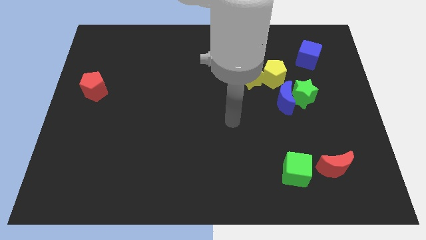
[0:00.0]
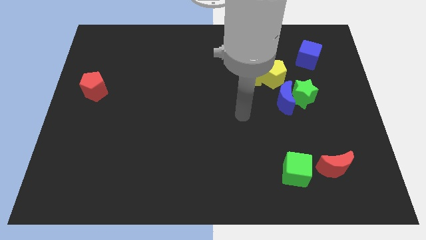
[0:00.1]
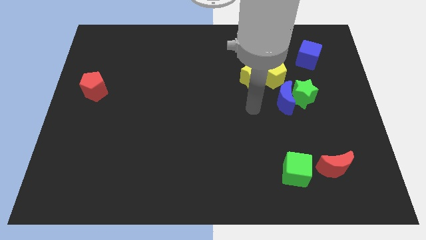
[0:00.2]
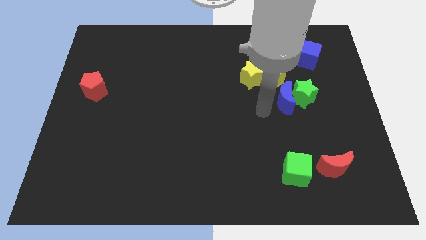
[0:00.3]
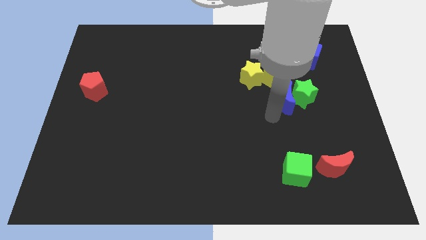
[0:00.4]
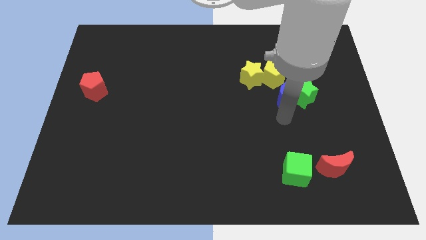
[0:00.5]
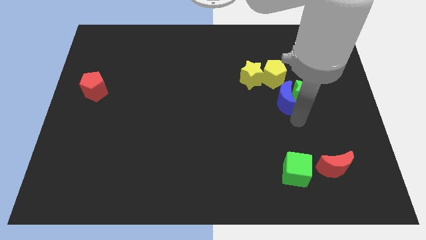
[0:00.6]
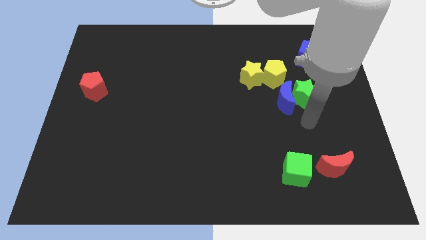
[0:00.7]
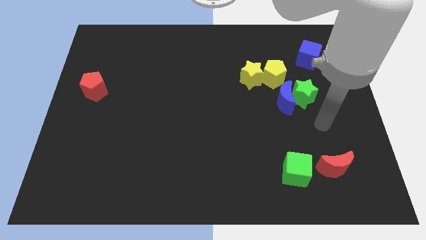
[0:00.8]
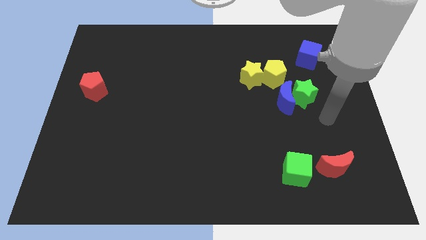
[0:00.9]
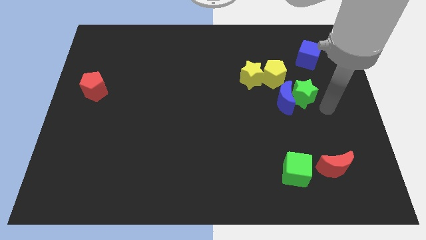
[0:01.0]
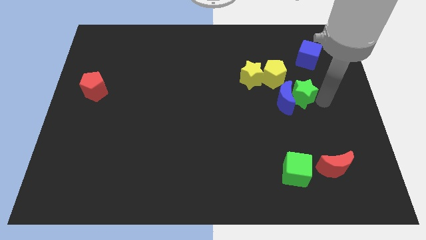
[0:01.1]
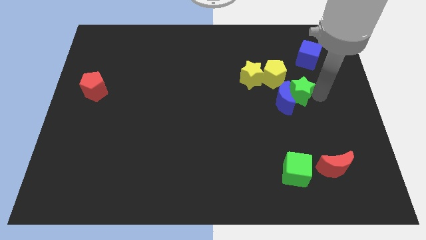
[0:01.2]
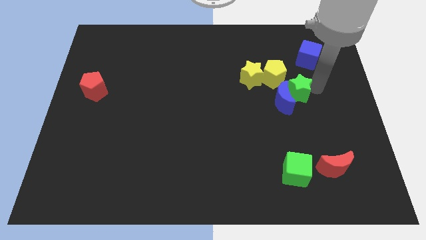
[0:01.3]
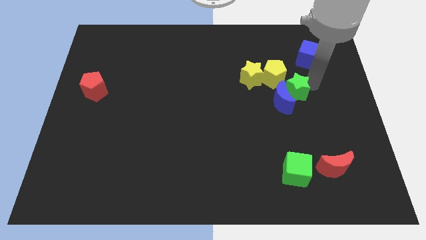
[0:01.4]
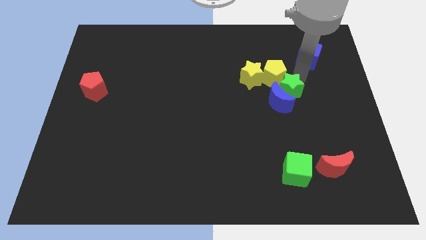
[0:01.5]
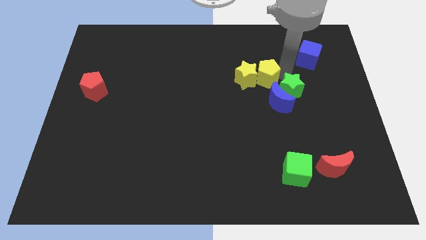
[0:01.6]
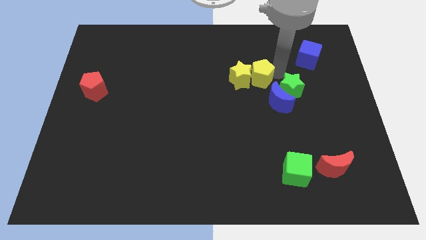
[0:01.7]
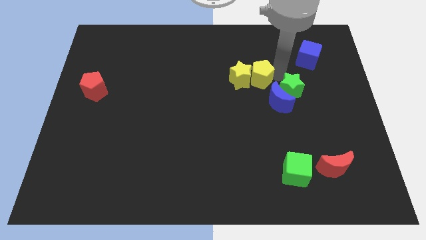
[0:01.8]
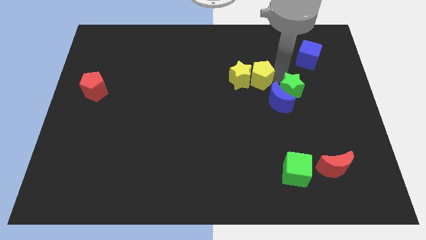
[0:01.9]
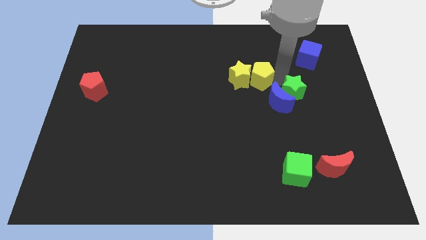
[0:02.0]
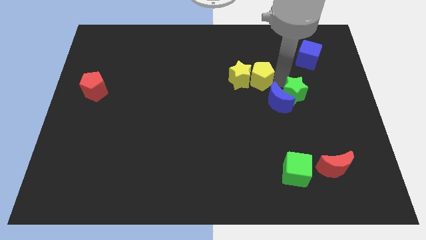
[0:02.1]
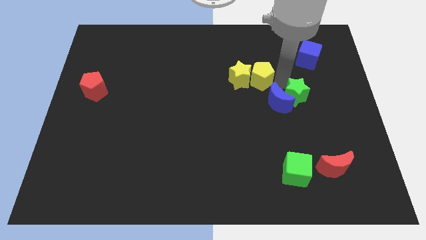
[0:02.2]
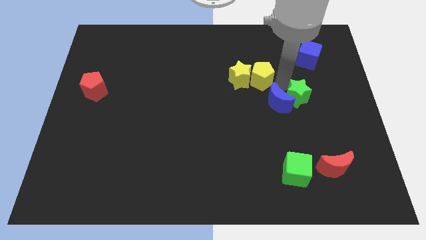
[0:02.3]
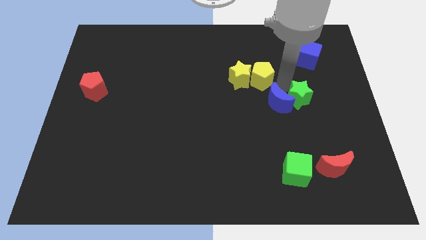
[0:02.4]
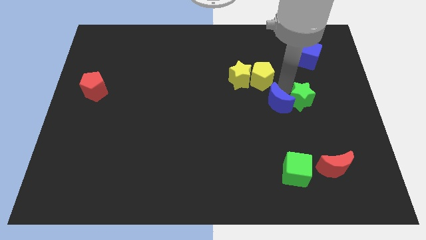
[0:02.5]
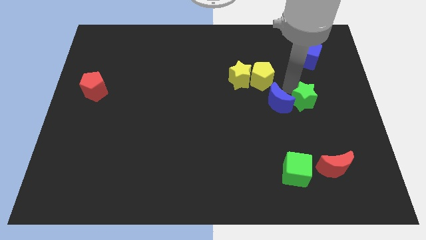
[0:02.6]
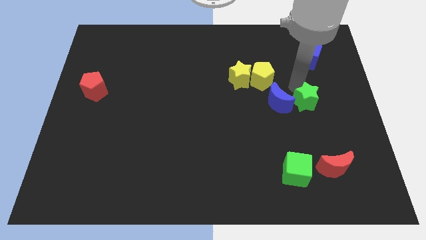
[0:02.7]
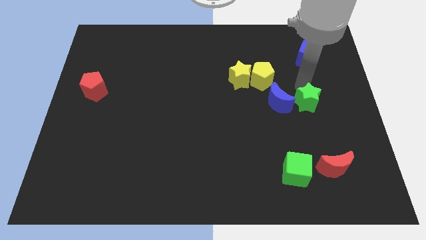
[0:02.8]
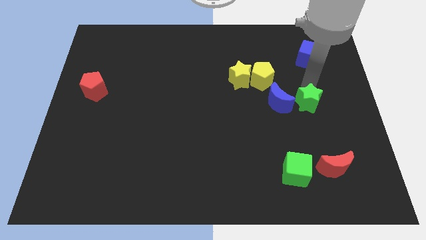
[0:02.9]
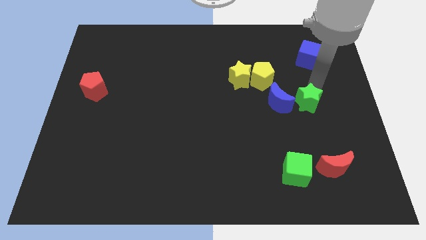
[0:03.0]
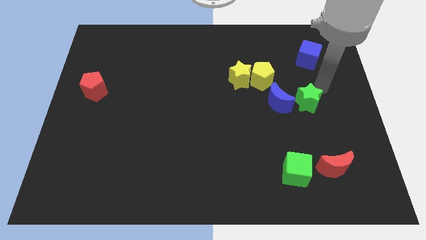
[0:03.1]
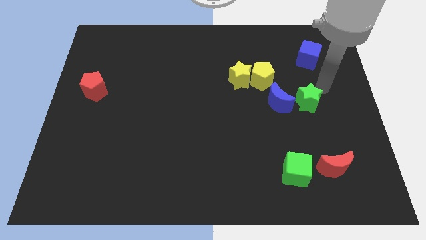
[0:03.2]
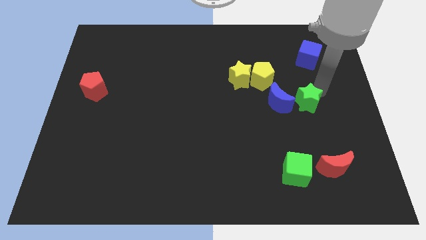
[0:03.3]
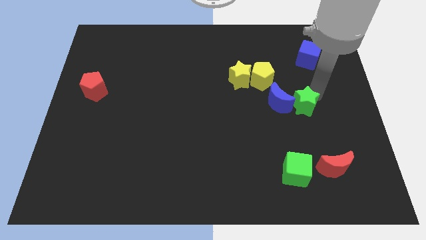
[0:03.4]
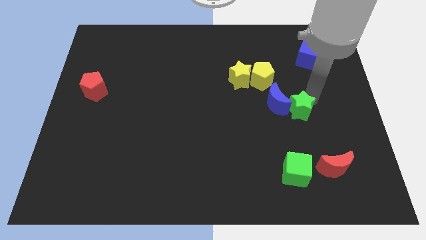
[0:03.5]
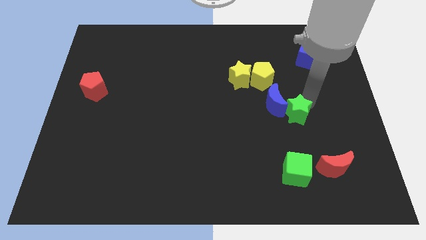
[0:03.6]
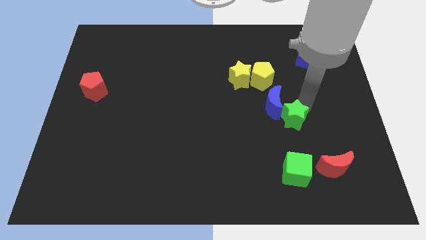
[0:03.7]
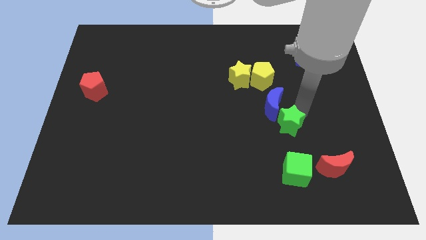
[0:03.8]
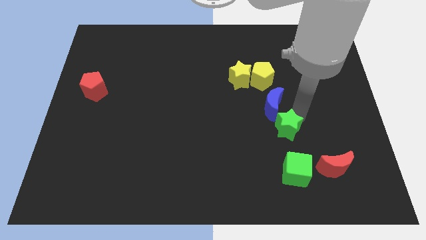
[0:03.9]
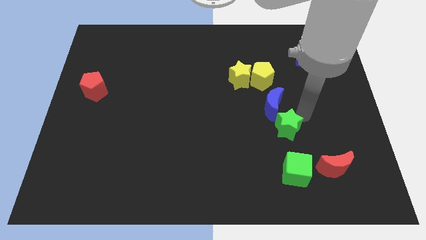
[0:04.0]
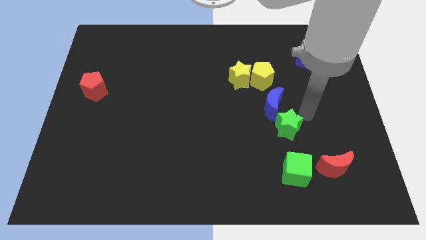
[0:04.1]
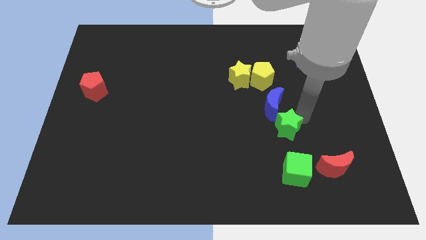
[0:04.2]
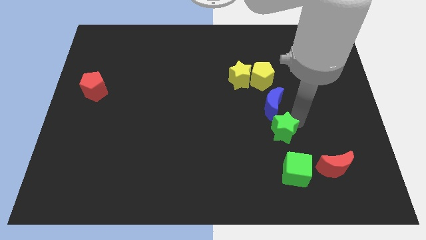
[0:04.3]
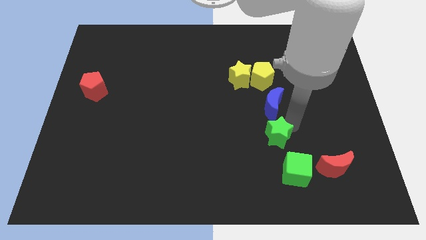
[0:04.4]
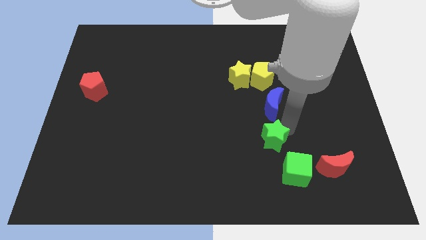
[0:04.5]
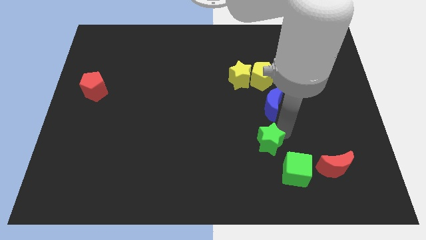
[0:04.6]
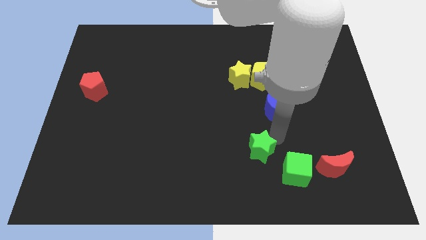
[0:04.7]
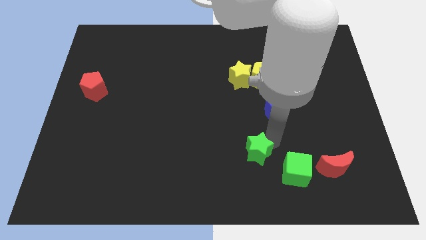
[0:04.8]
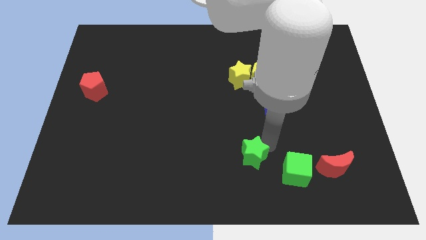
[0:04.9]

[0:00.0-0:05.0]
push the green star downwards and then left

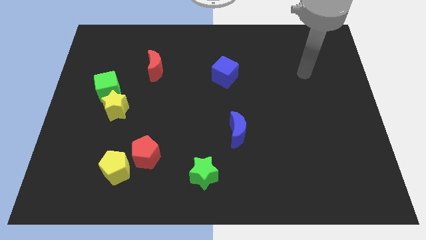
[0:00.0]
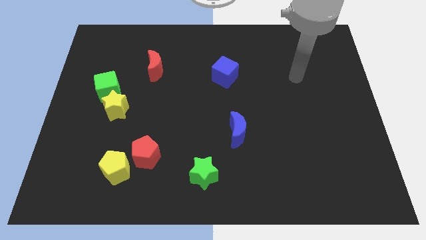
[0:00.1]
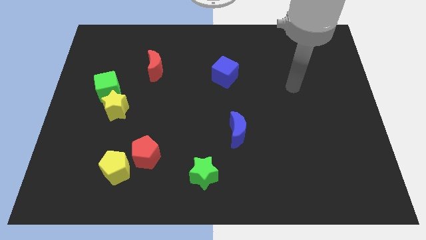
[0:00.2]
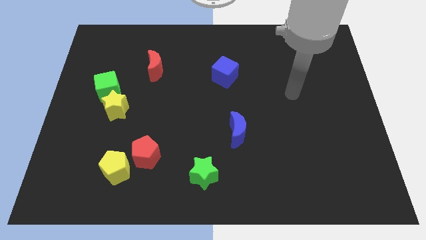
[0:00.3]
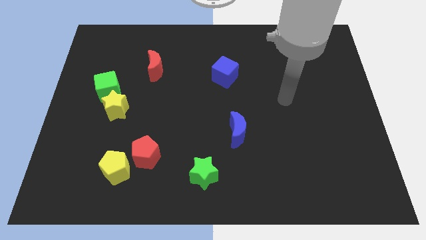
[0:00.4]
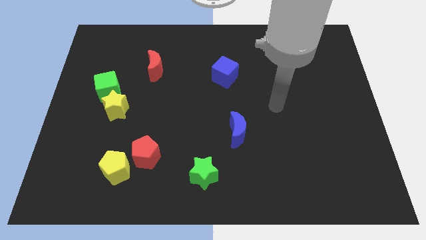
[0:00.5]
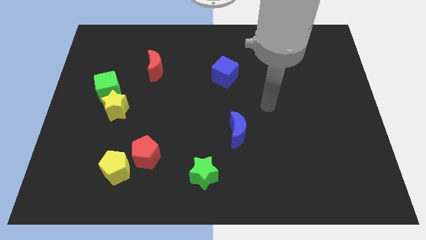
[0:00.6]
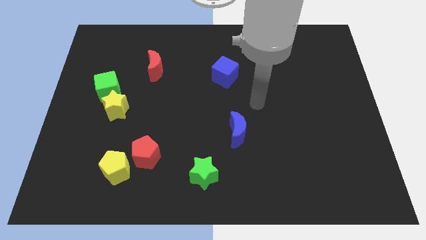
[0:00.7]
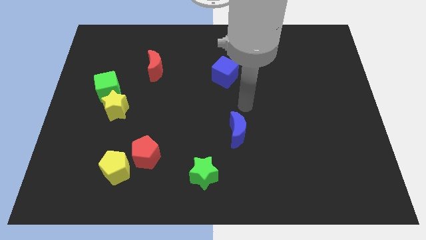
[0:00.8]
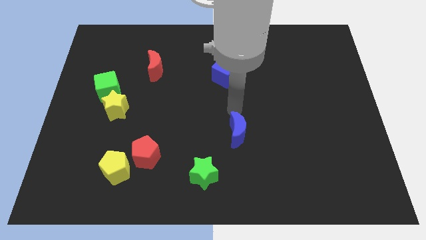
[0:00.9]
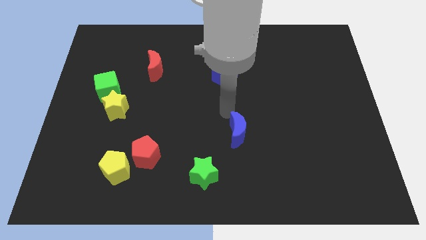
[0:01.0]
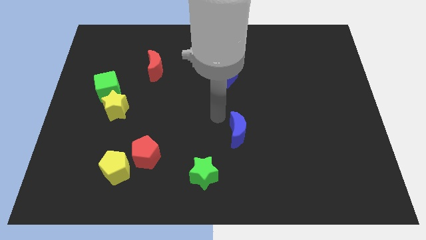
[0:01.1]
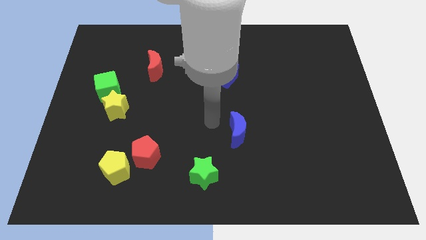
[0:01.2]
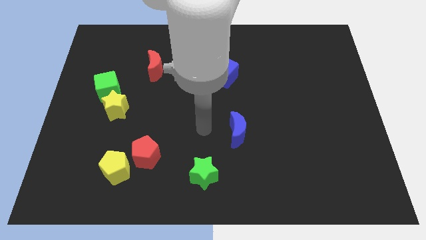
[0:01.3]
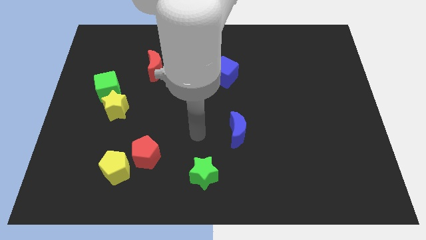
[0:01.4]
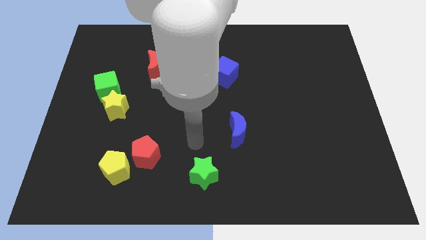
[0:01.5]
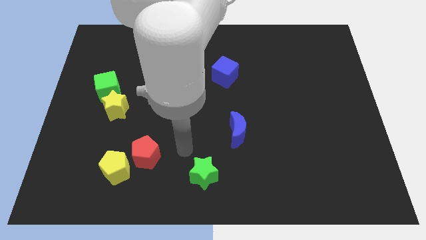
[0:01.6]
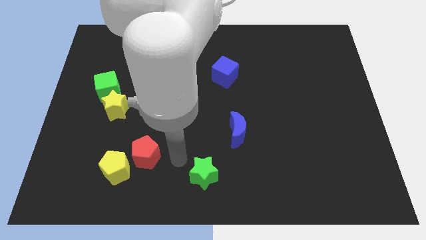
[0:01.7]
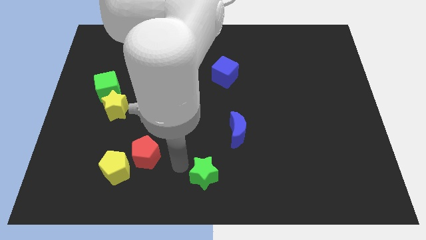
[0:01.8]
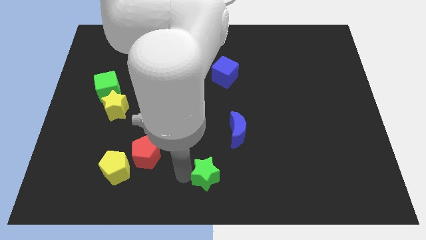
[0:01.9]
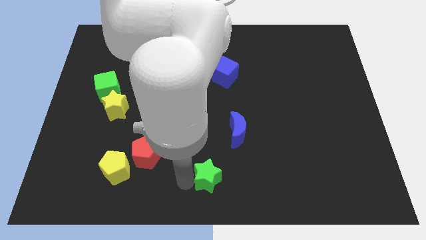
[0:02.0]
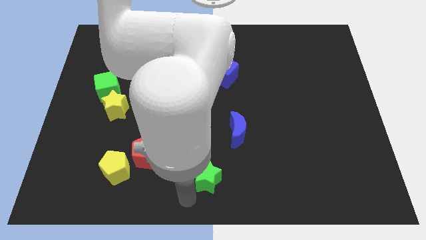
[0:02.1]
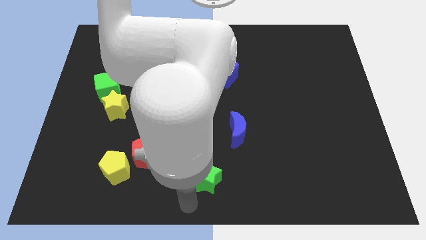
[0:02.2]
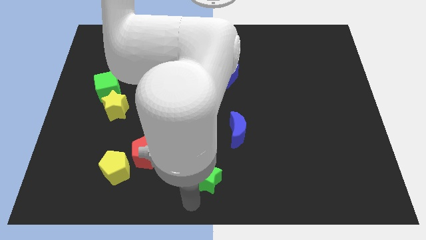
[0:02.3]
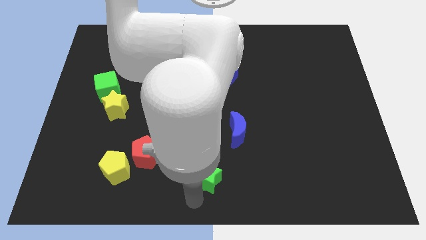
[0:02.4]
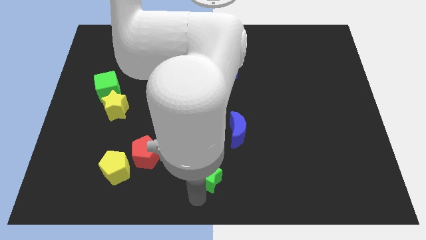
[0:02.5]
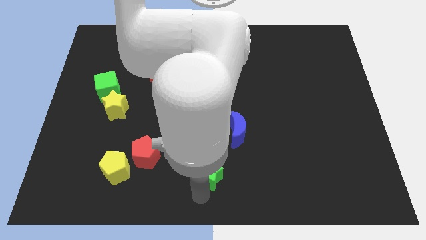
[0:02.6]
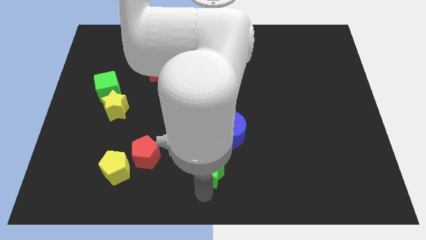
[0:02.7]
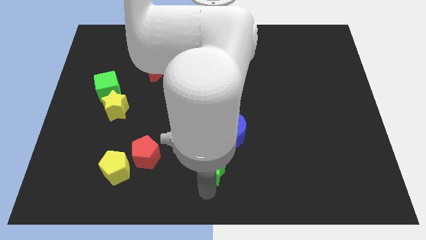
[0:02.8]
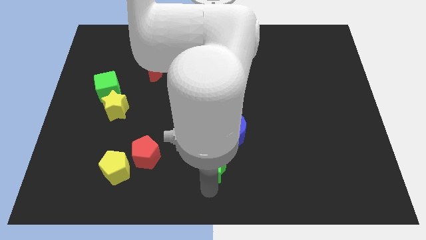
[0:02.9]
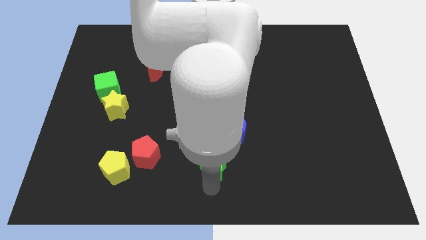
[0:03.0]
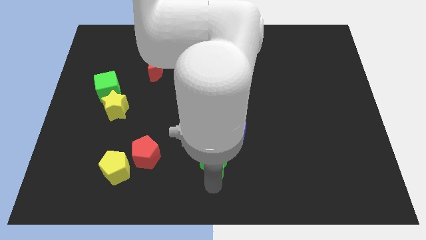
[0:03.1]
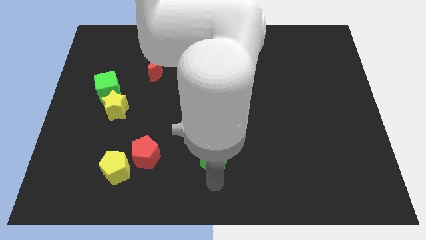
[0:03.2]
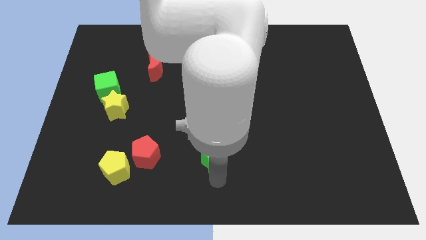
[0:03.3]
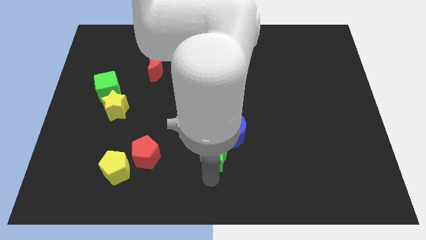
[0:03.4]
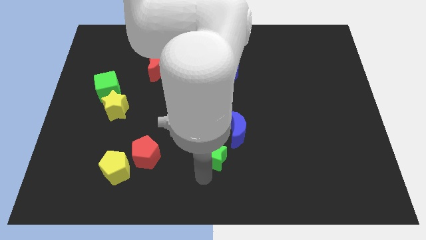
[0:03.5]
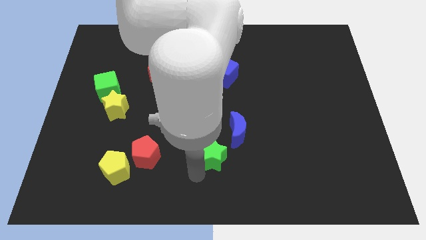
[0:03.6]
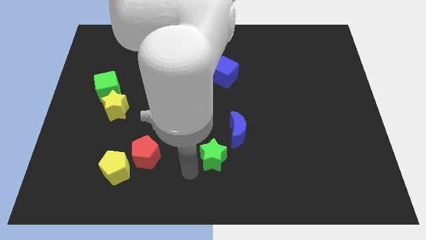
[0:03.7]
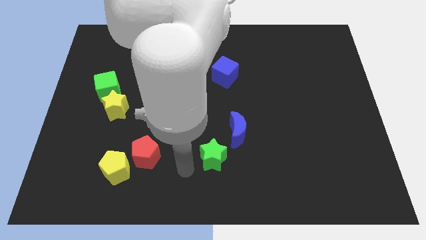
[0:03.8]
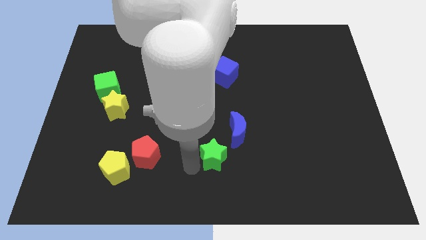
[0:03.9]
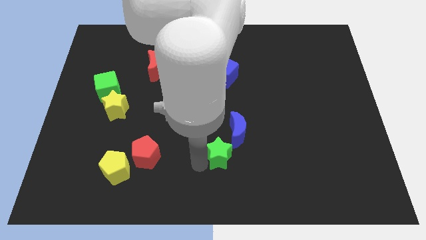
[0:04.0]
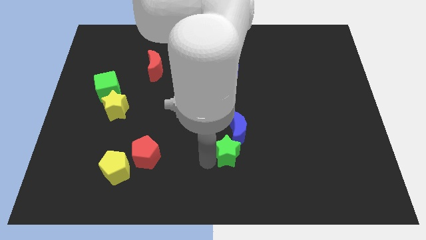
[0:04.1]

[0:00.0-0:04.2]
slightly push the green star up and then to the right
